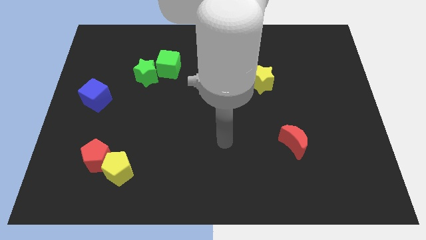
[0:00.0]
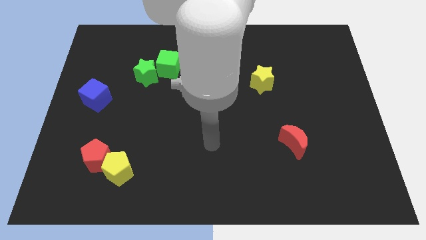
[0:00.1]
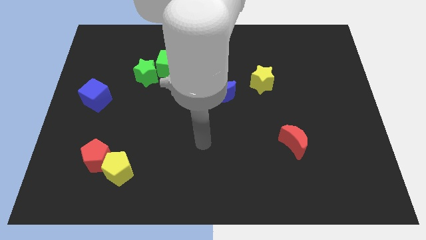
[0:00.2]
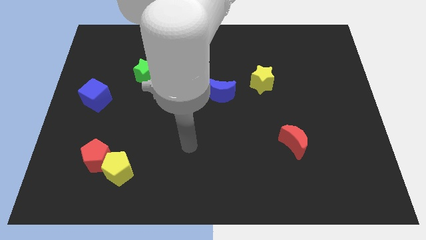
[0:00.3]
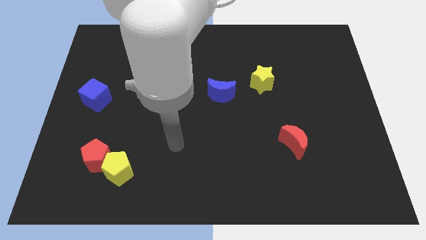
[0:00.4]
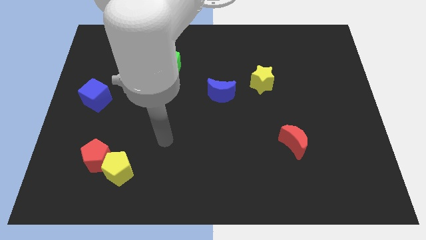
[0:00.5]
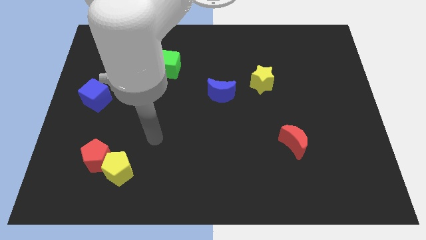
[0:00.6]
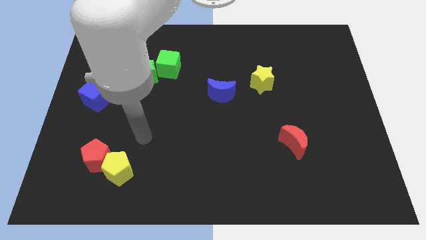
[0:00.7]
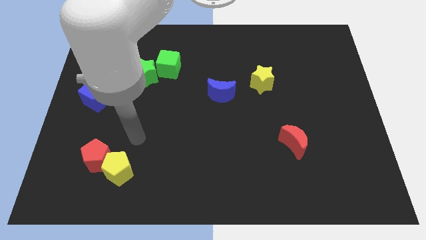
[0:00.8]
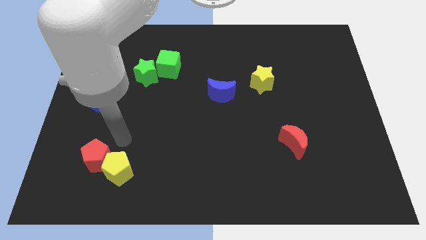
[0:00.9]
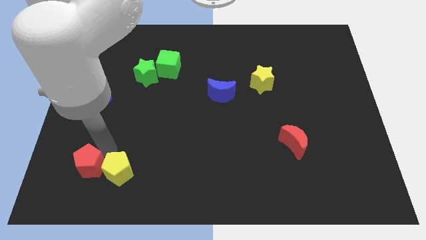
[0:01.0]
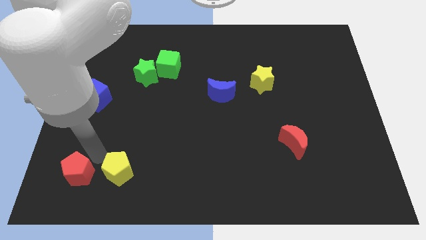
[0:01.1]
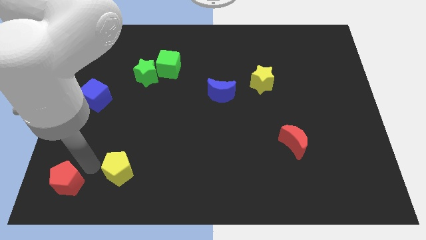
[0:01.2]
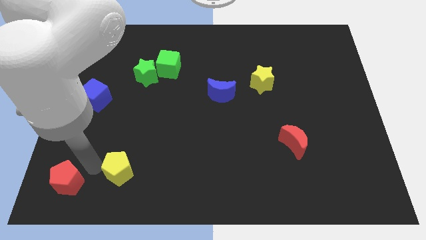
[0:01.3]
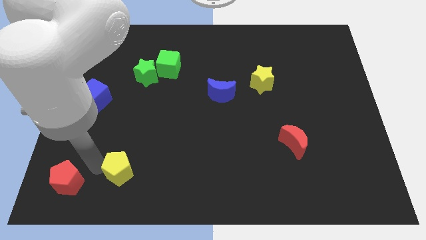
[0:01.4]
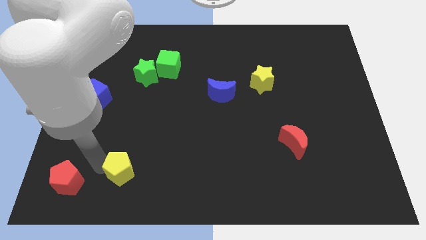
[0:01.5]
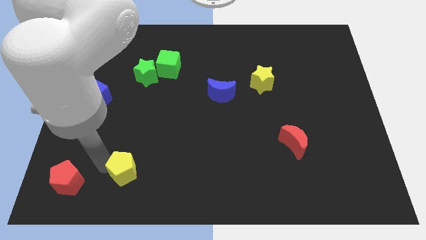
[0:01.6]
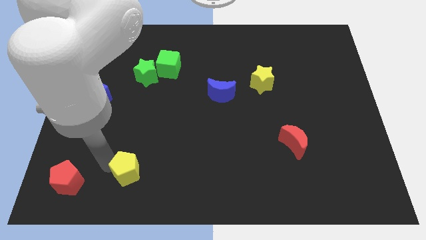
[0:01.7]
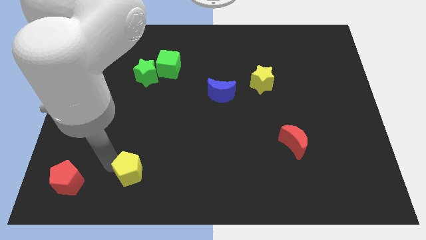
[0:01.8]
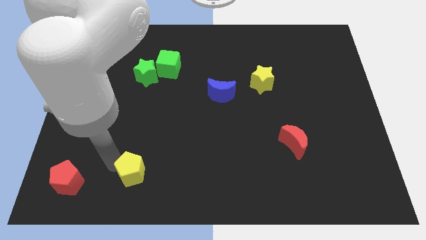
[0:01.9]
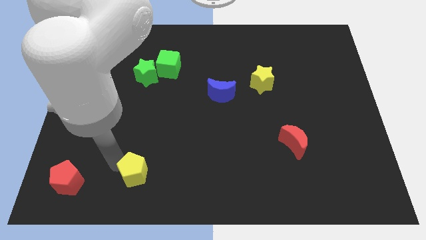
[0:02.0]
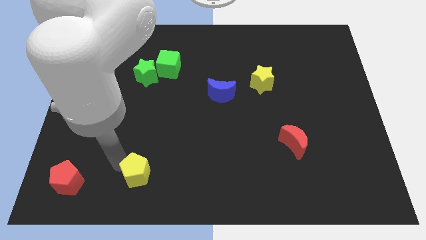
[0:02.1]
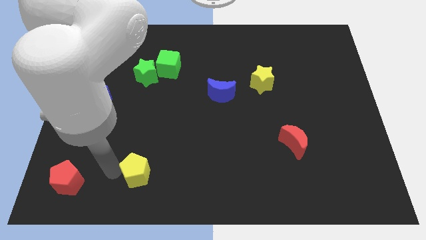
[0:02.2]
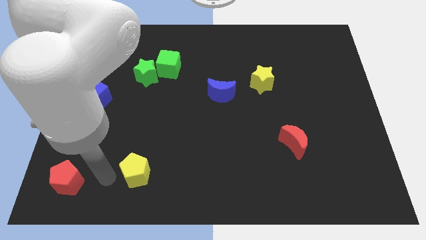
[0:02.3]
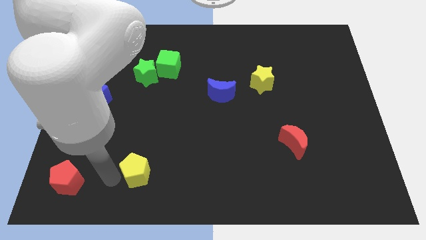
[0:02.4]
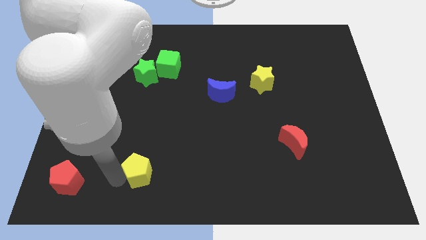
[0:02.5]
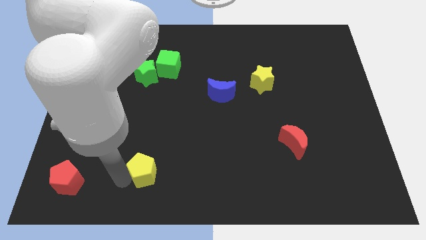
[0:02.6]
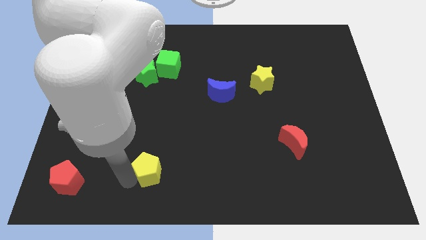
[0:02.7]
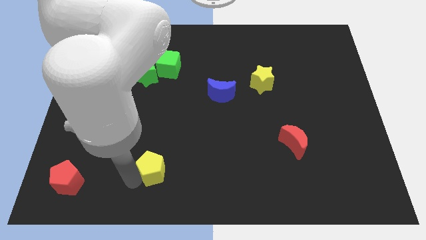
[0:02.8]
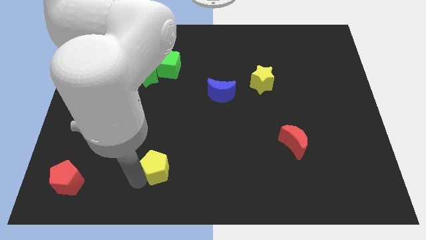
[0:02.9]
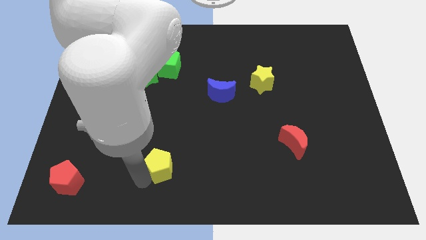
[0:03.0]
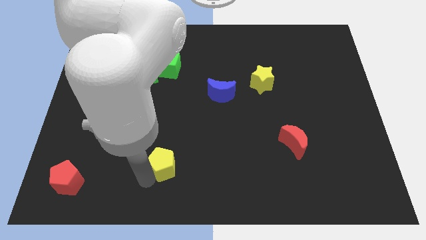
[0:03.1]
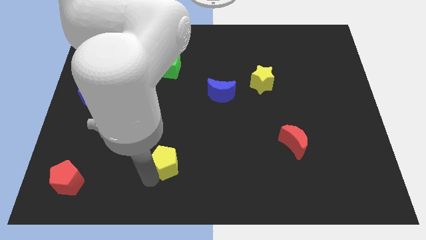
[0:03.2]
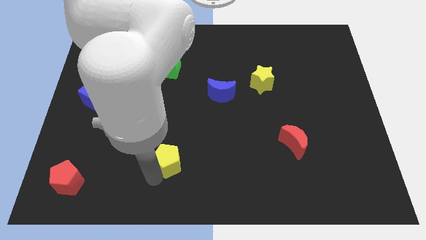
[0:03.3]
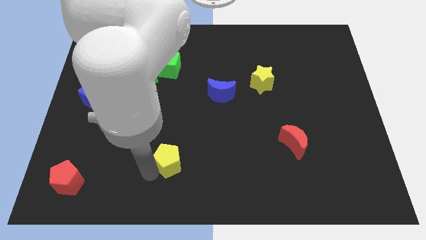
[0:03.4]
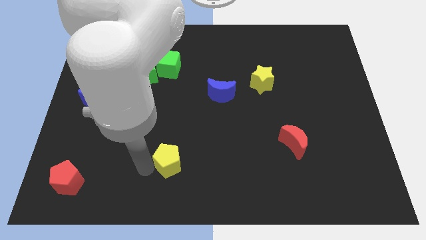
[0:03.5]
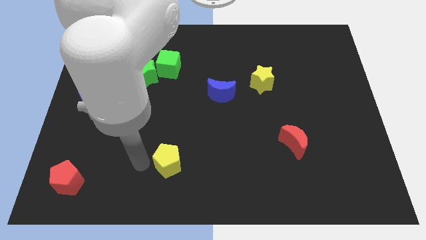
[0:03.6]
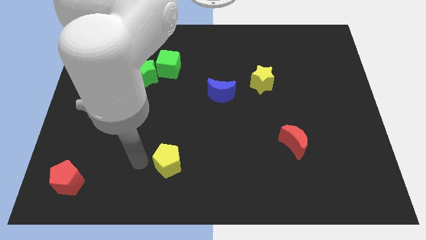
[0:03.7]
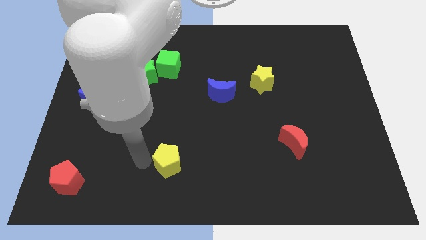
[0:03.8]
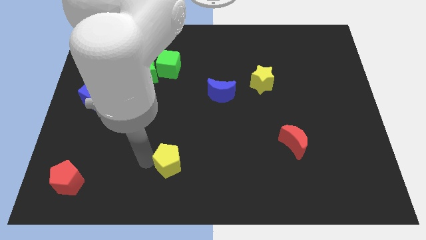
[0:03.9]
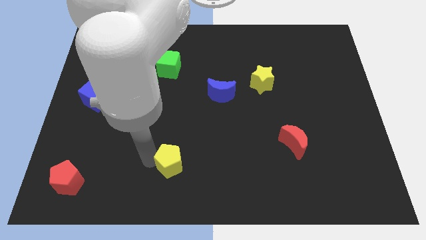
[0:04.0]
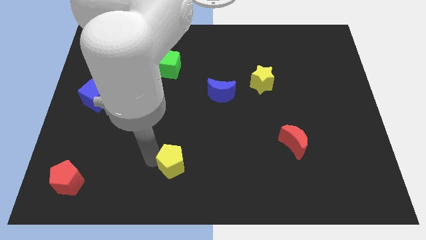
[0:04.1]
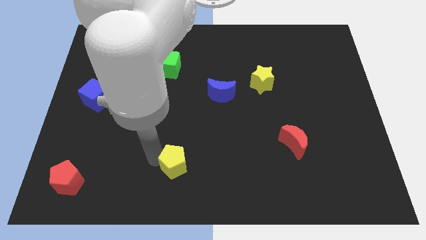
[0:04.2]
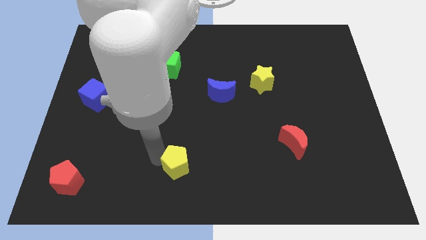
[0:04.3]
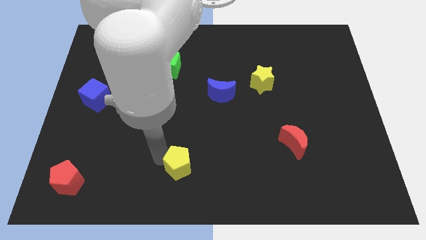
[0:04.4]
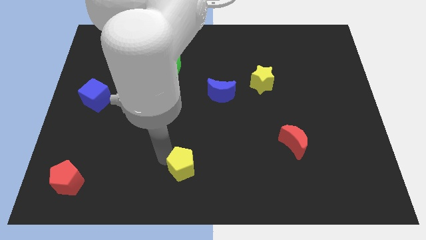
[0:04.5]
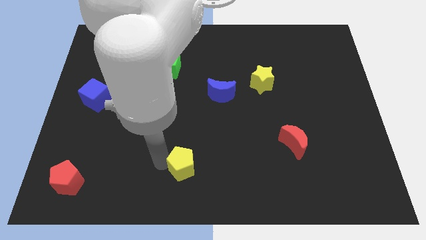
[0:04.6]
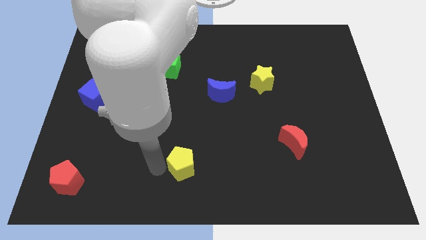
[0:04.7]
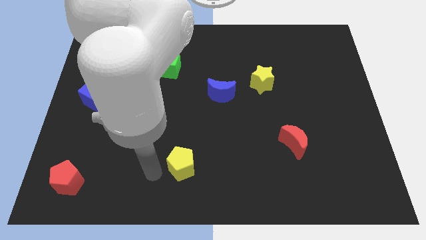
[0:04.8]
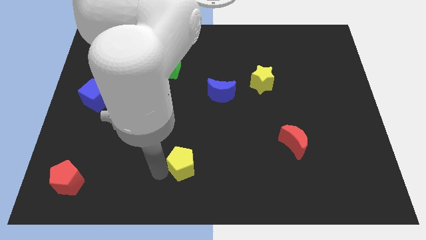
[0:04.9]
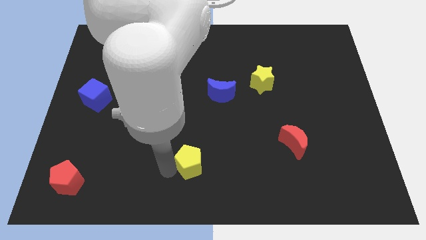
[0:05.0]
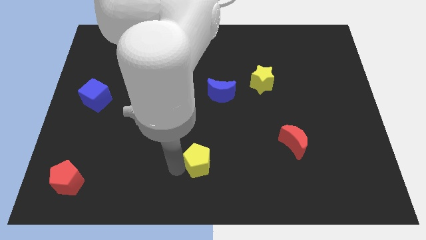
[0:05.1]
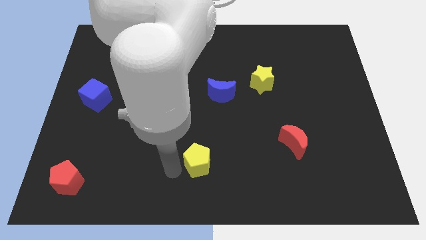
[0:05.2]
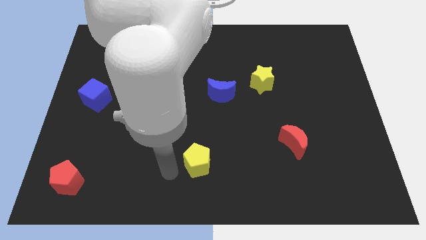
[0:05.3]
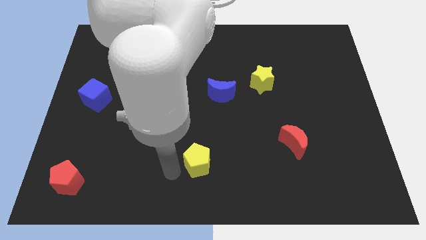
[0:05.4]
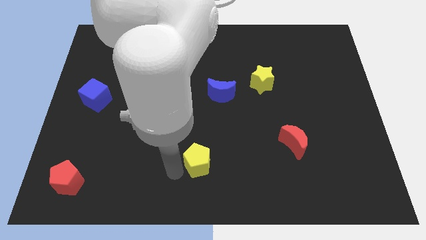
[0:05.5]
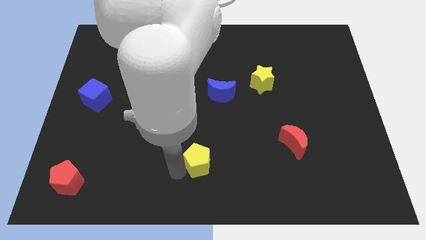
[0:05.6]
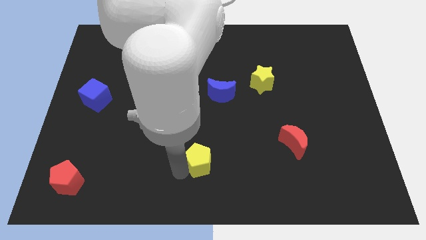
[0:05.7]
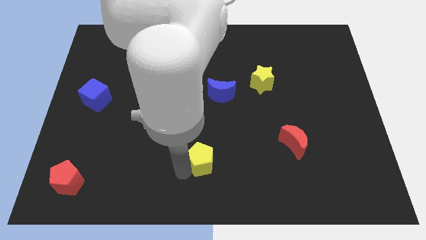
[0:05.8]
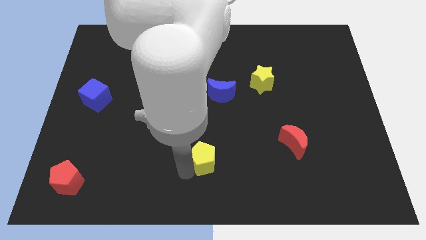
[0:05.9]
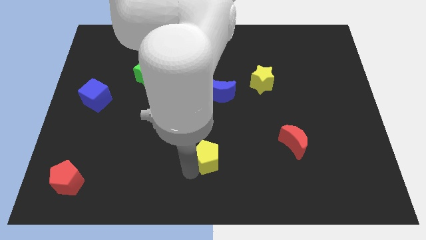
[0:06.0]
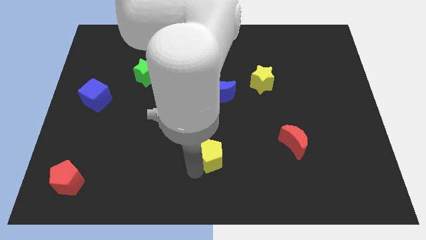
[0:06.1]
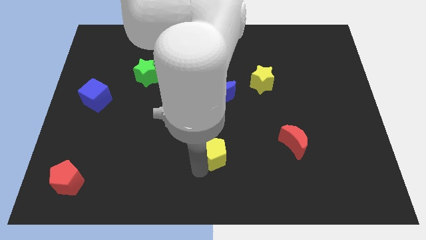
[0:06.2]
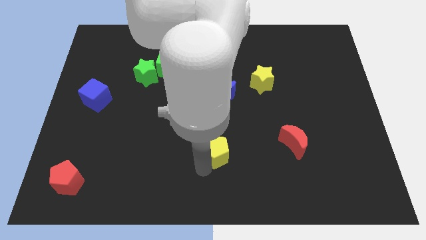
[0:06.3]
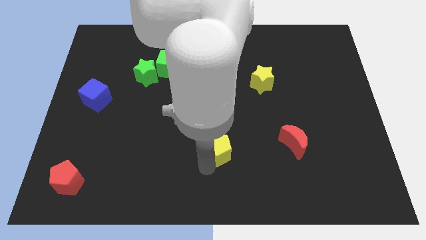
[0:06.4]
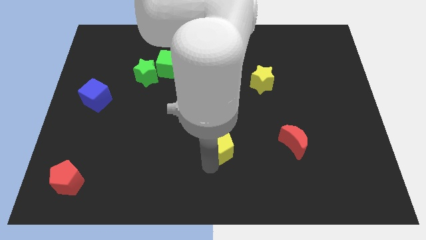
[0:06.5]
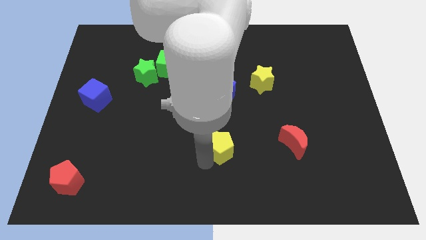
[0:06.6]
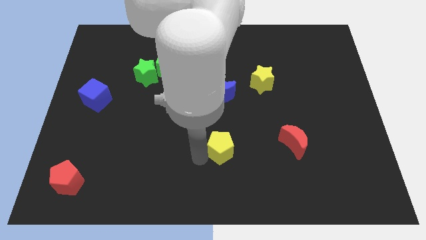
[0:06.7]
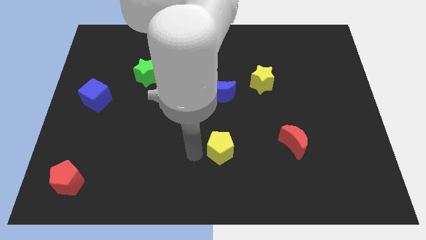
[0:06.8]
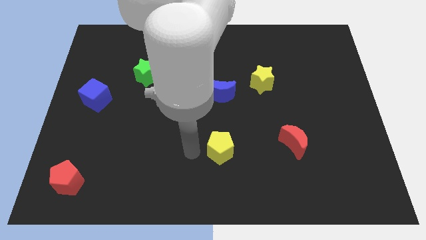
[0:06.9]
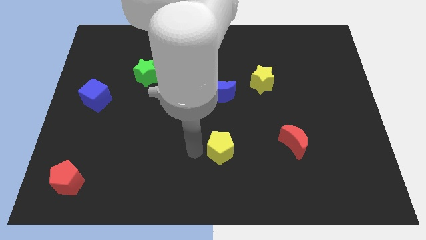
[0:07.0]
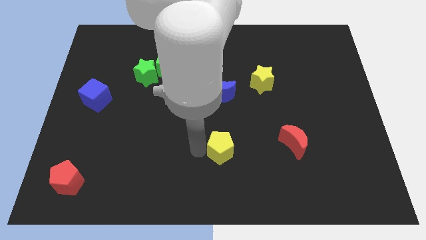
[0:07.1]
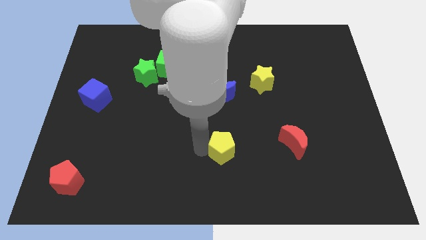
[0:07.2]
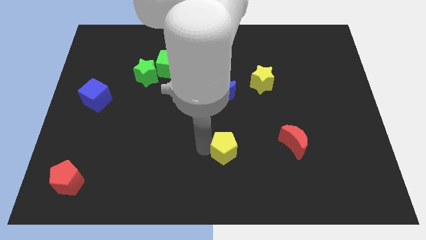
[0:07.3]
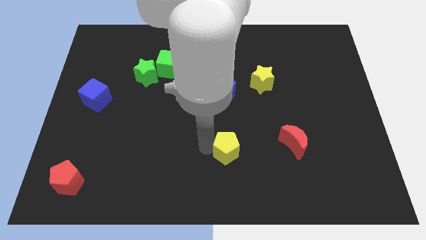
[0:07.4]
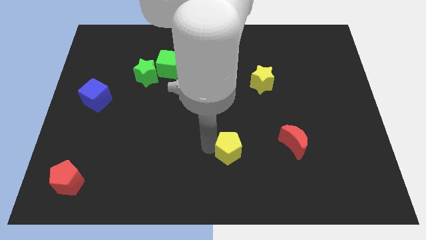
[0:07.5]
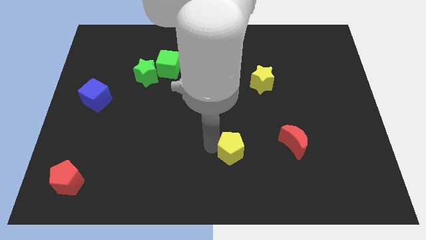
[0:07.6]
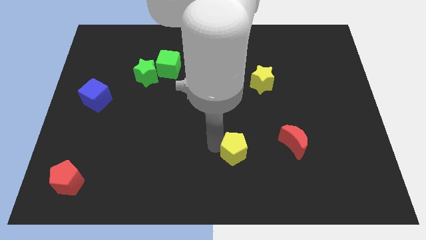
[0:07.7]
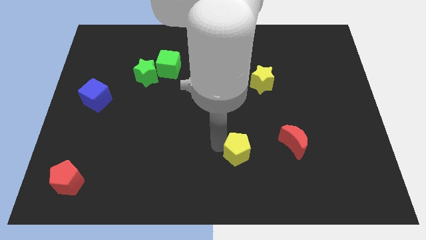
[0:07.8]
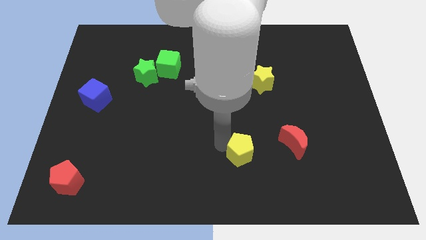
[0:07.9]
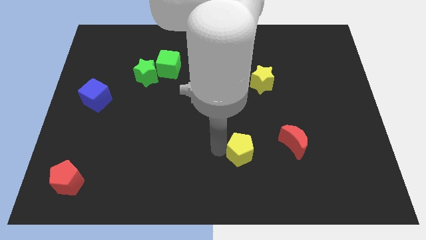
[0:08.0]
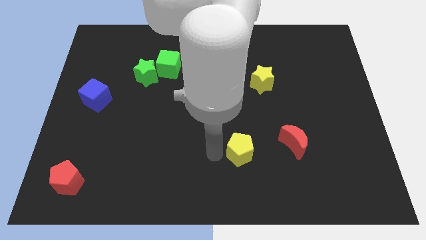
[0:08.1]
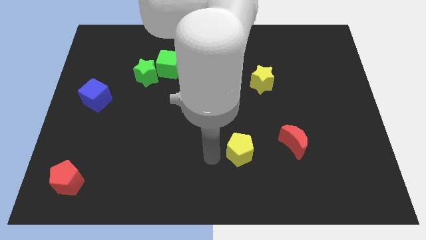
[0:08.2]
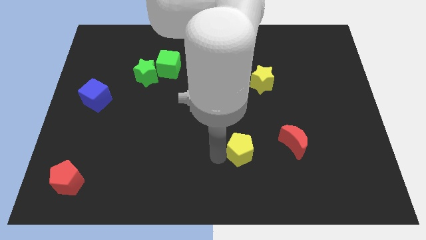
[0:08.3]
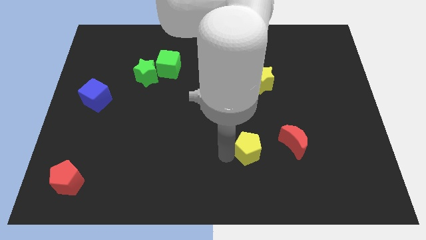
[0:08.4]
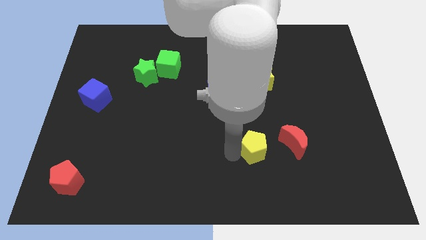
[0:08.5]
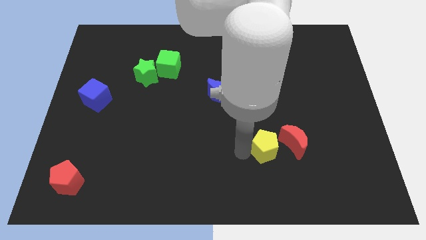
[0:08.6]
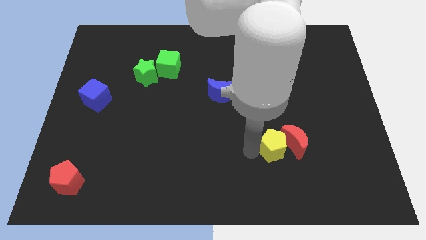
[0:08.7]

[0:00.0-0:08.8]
move the yellow pentagon towards the red moon
